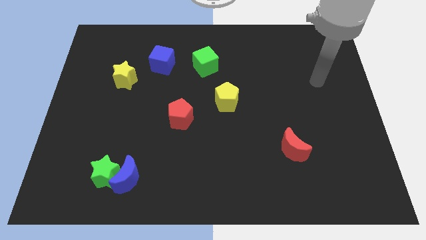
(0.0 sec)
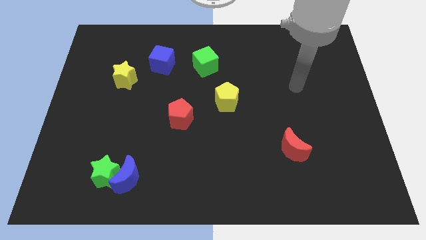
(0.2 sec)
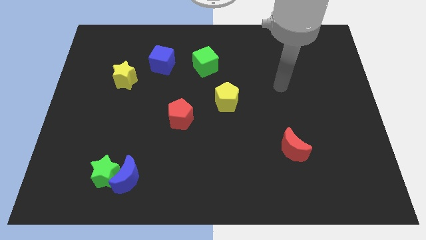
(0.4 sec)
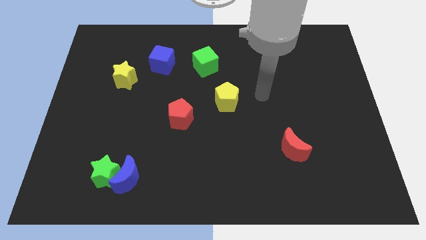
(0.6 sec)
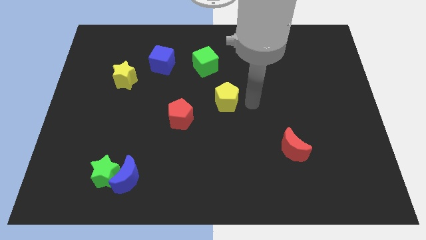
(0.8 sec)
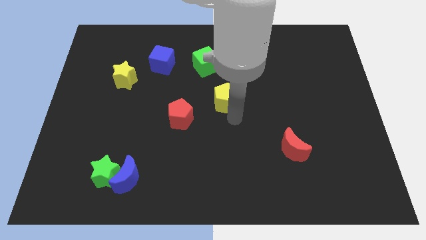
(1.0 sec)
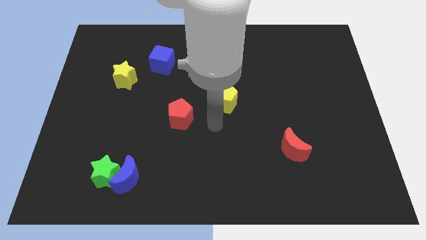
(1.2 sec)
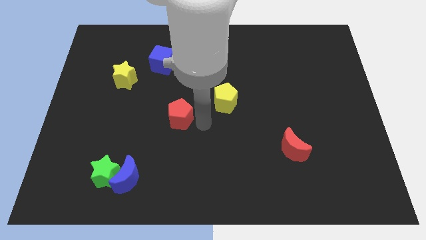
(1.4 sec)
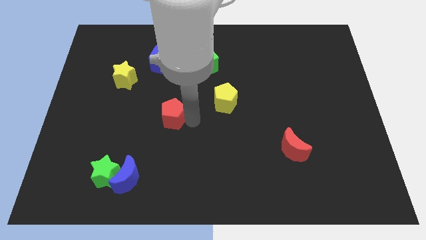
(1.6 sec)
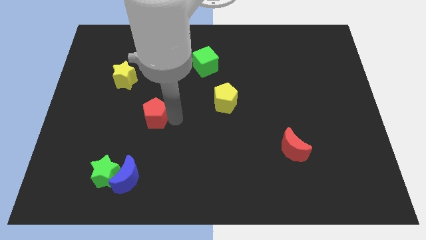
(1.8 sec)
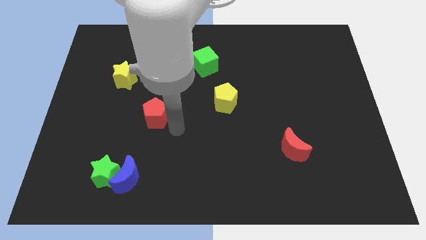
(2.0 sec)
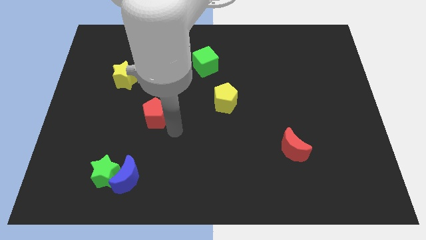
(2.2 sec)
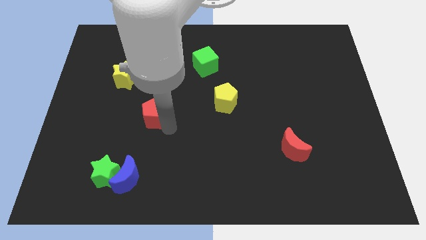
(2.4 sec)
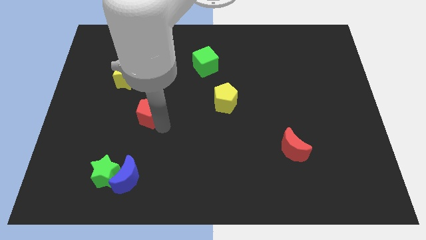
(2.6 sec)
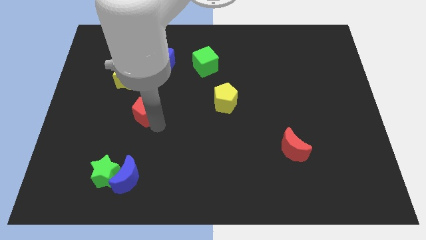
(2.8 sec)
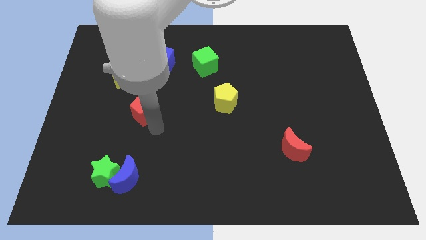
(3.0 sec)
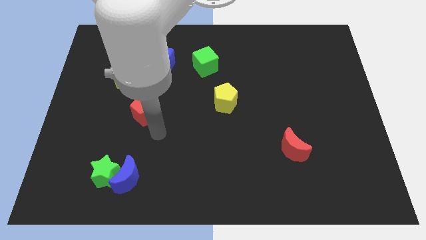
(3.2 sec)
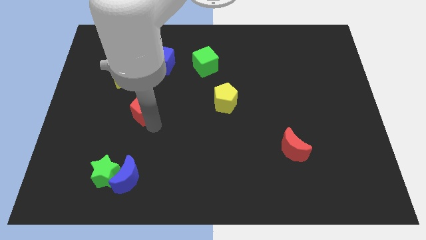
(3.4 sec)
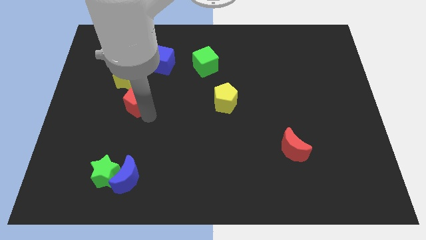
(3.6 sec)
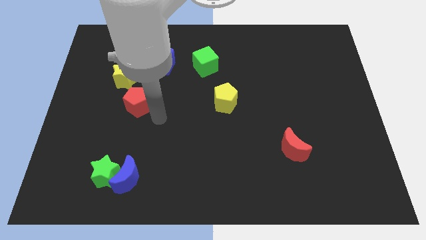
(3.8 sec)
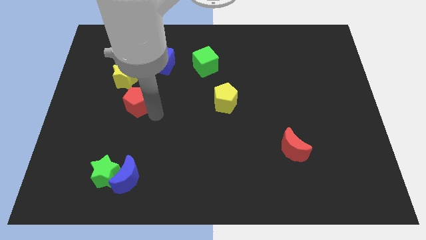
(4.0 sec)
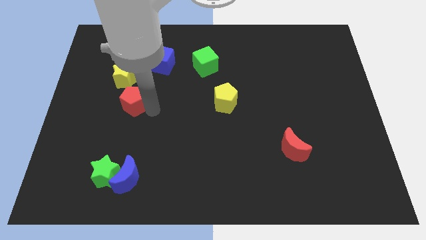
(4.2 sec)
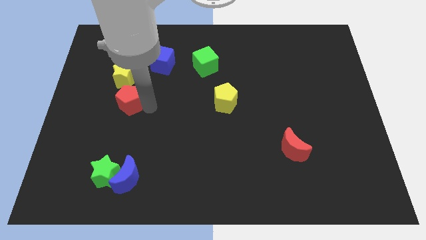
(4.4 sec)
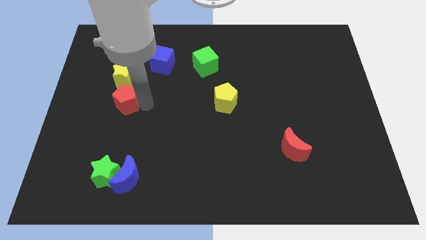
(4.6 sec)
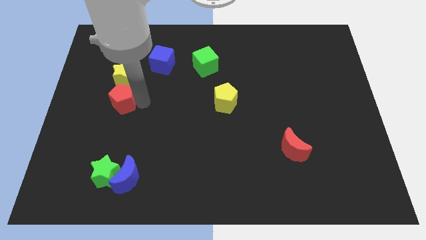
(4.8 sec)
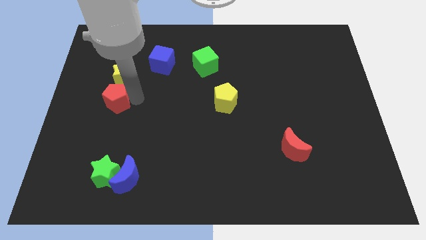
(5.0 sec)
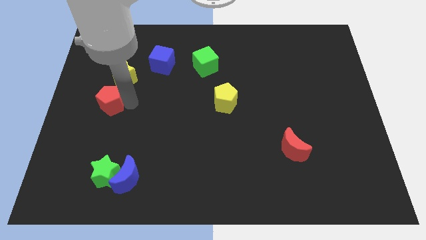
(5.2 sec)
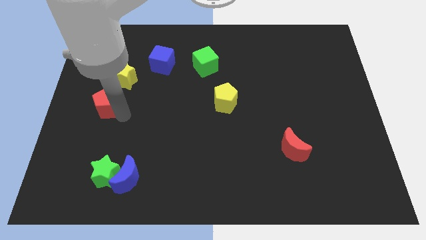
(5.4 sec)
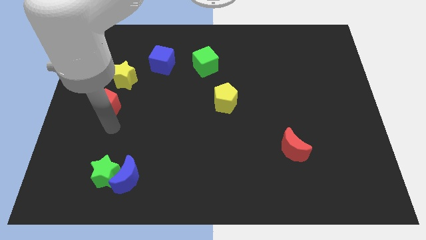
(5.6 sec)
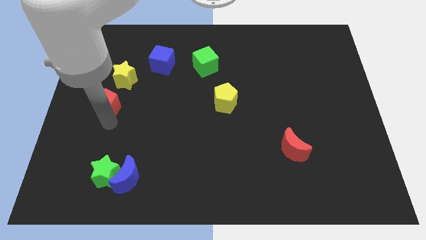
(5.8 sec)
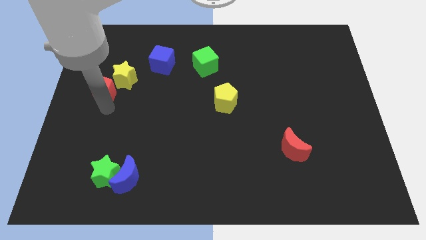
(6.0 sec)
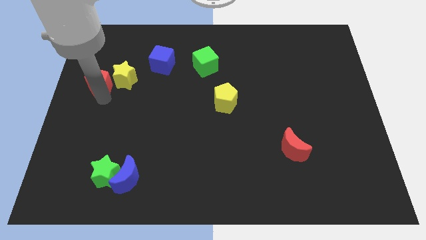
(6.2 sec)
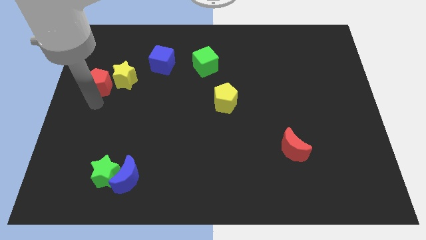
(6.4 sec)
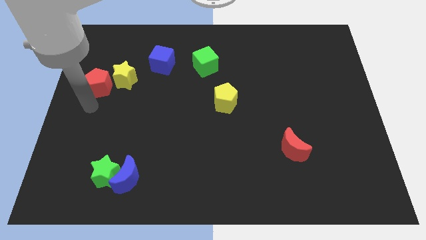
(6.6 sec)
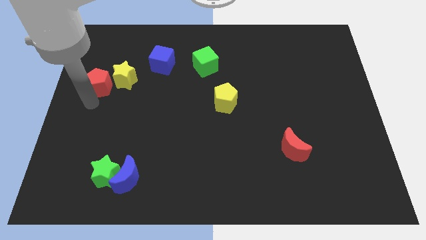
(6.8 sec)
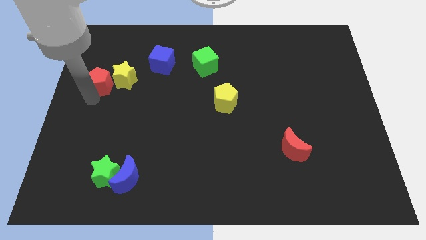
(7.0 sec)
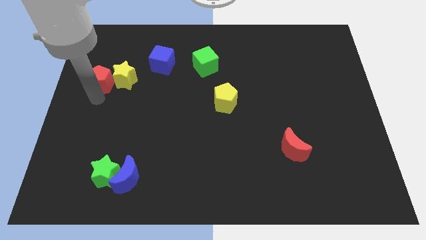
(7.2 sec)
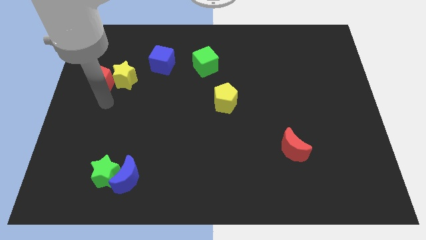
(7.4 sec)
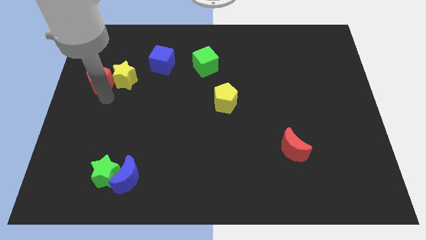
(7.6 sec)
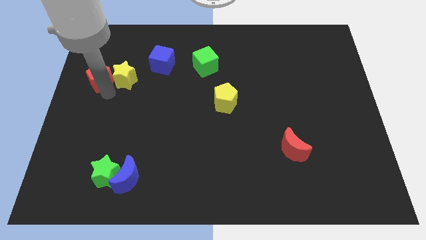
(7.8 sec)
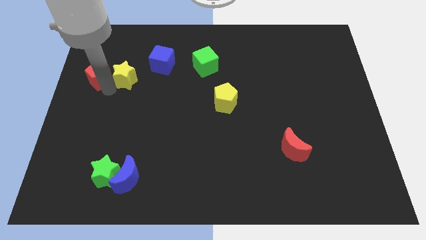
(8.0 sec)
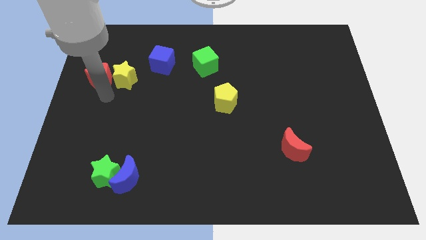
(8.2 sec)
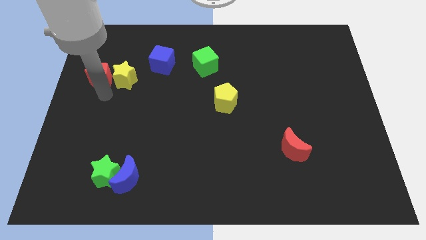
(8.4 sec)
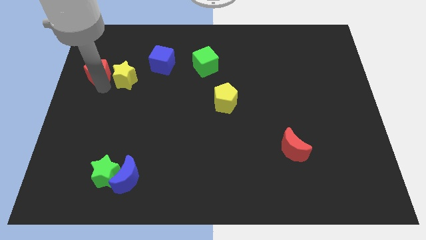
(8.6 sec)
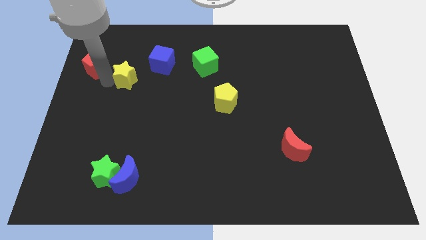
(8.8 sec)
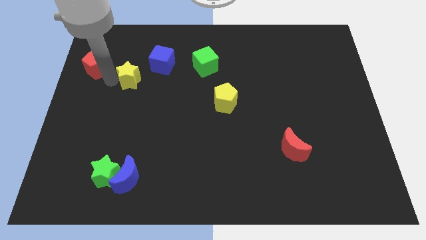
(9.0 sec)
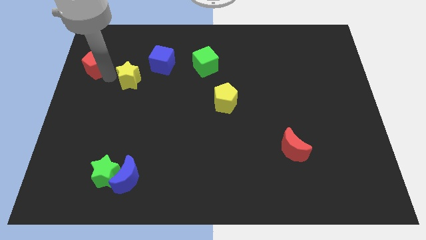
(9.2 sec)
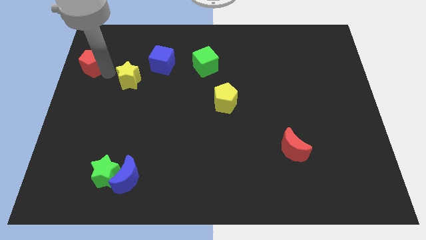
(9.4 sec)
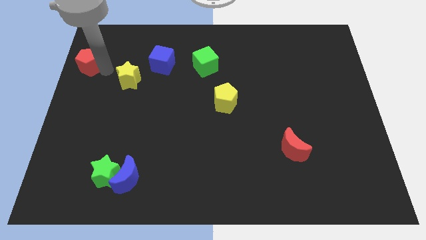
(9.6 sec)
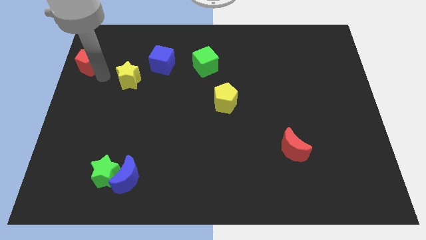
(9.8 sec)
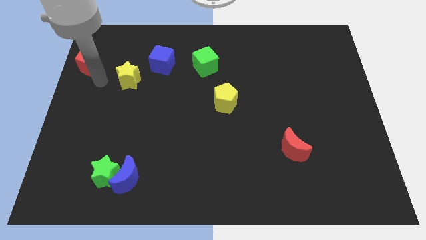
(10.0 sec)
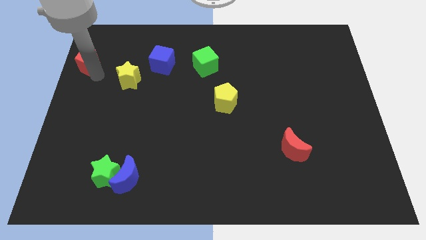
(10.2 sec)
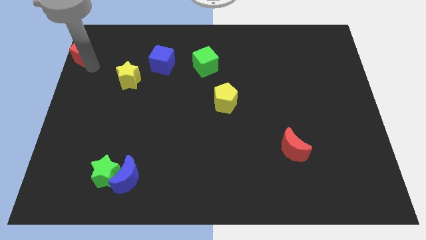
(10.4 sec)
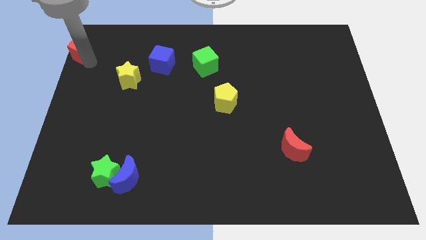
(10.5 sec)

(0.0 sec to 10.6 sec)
slide the red pentagon to the top left of the board

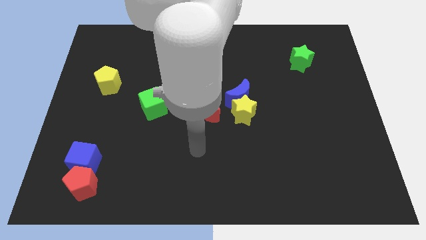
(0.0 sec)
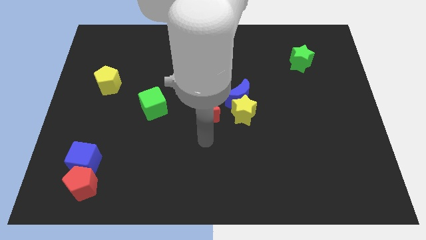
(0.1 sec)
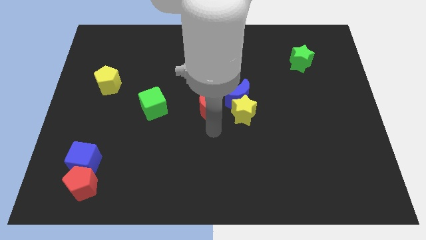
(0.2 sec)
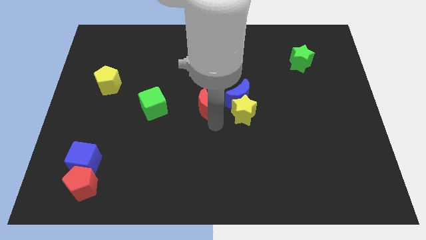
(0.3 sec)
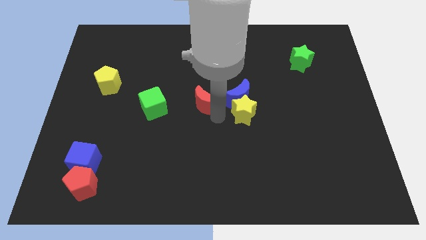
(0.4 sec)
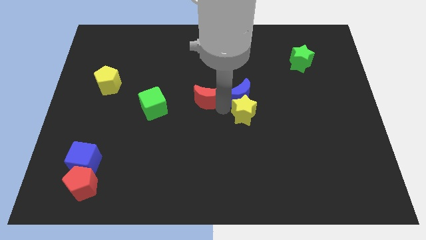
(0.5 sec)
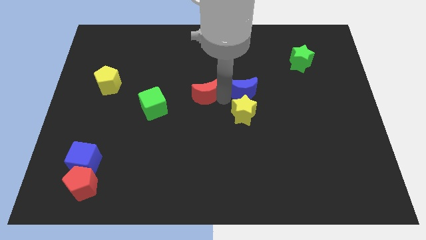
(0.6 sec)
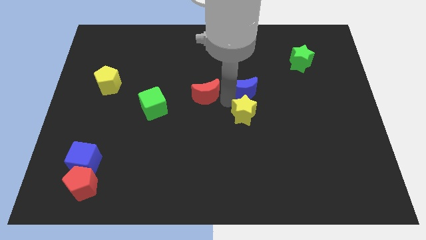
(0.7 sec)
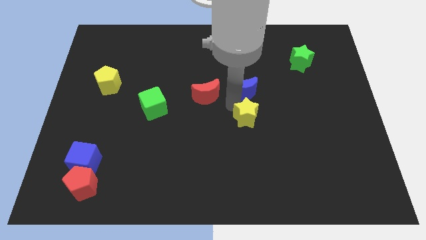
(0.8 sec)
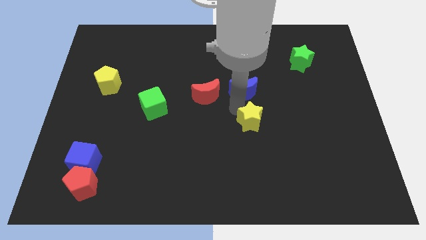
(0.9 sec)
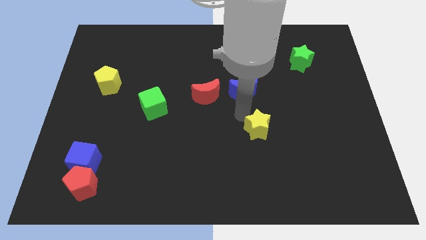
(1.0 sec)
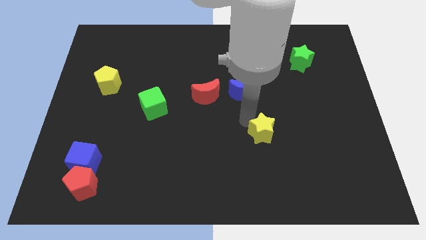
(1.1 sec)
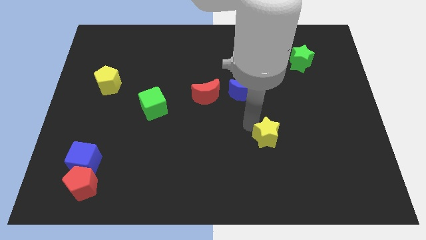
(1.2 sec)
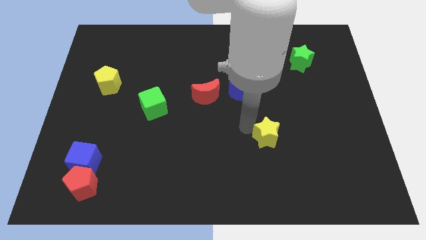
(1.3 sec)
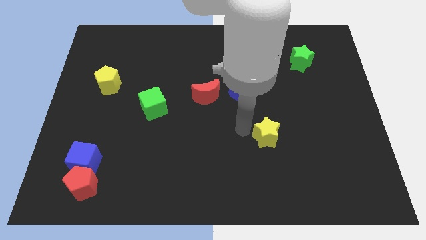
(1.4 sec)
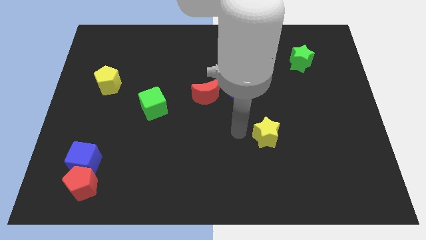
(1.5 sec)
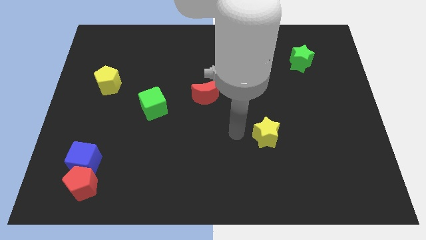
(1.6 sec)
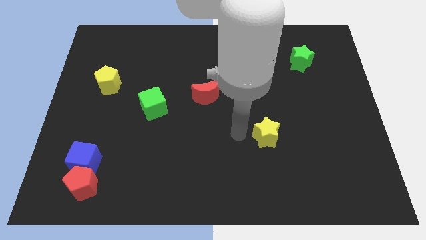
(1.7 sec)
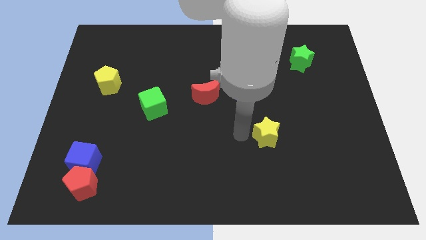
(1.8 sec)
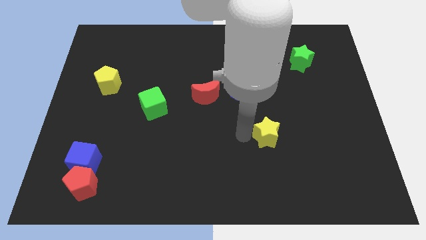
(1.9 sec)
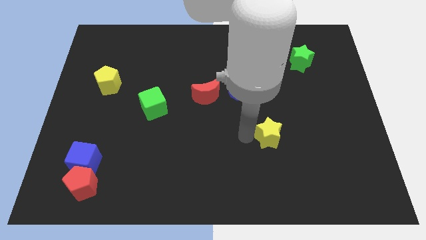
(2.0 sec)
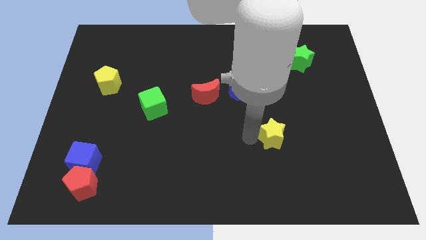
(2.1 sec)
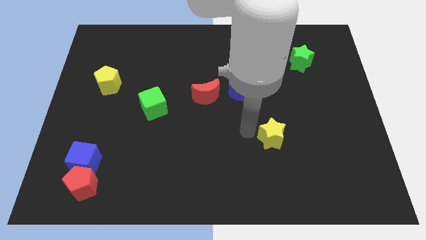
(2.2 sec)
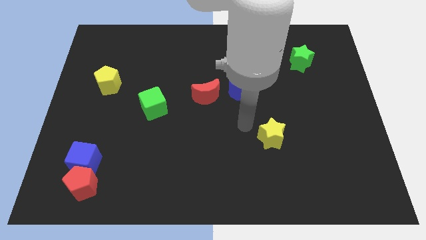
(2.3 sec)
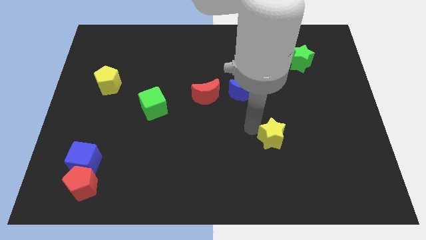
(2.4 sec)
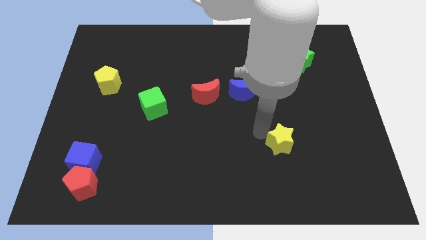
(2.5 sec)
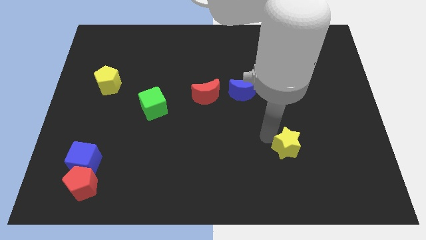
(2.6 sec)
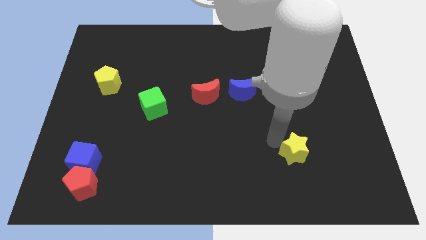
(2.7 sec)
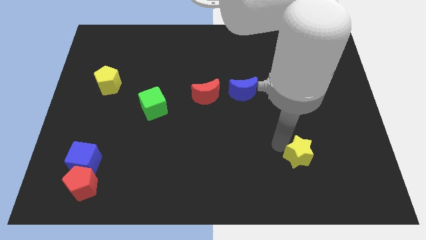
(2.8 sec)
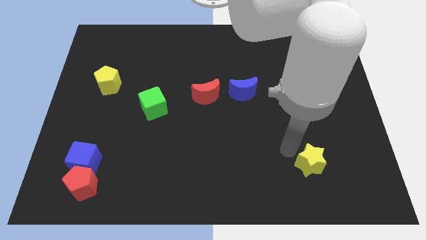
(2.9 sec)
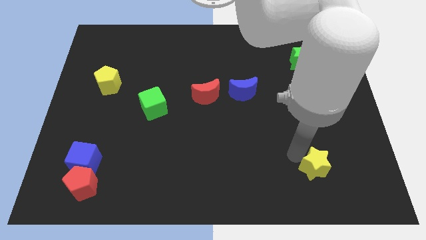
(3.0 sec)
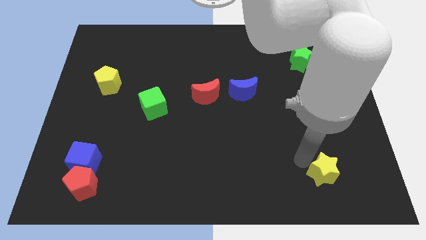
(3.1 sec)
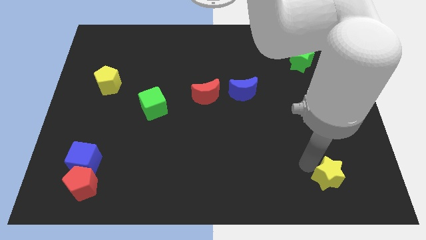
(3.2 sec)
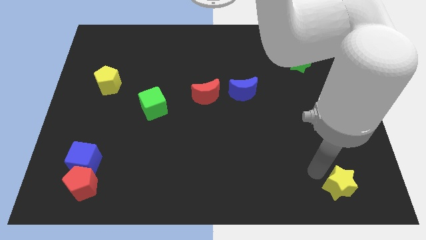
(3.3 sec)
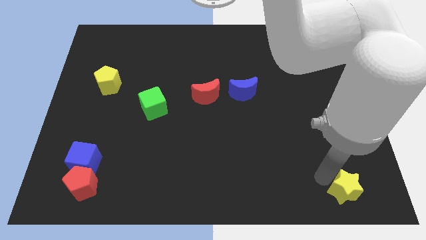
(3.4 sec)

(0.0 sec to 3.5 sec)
slide the yellow star to the bottom right corner
